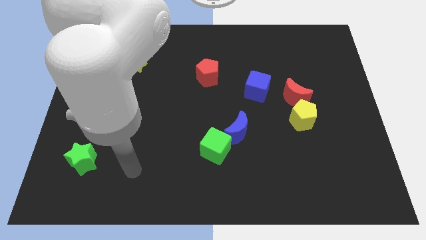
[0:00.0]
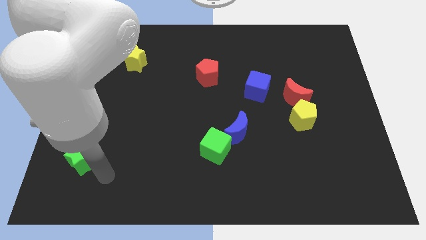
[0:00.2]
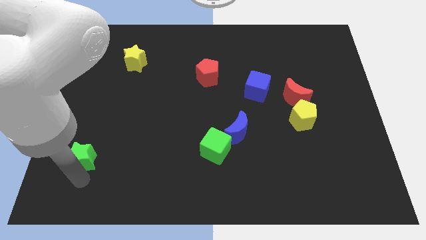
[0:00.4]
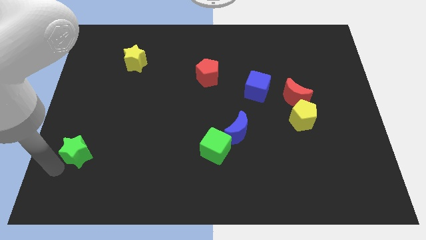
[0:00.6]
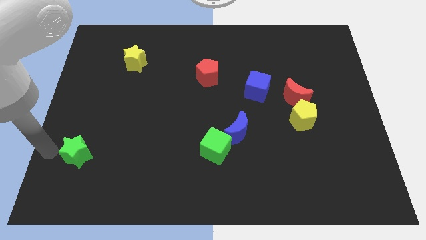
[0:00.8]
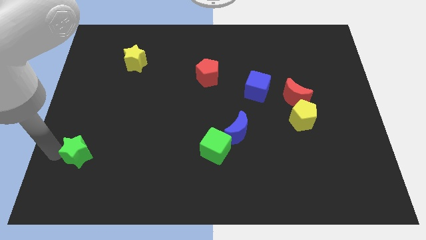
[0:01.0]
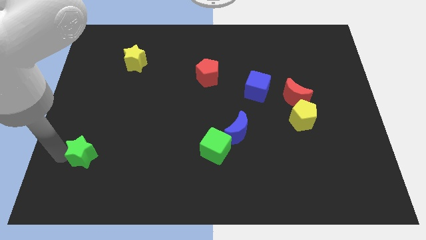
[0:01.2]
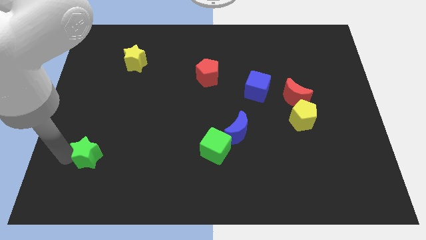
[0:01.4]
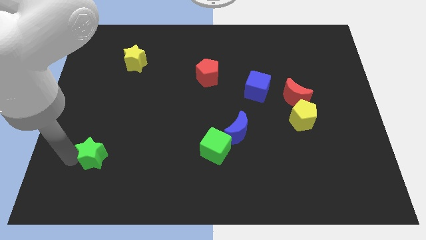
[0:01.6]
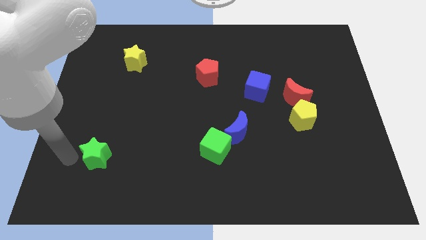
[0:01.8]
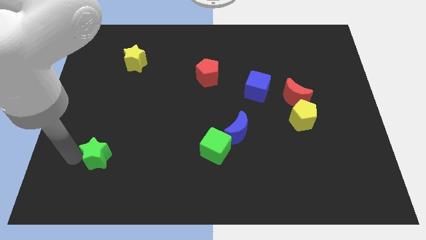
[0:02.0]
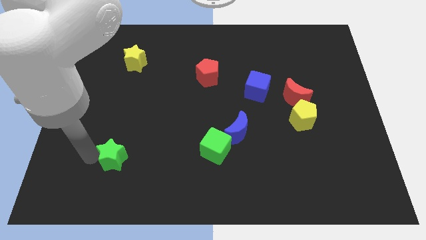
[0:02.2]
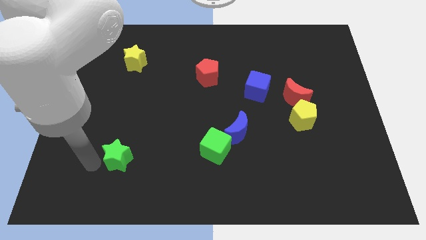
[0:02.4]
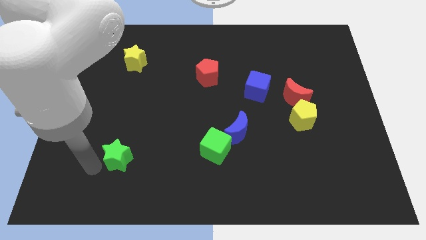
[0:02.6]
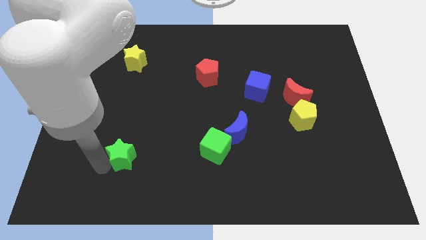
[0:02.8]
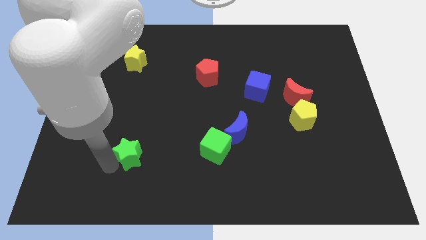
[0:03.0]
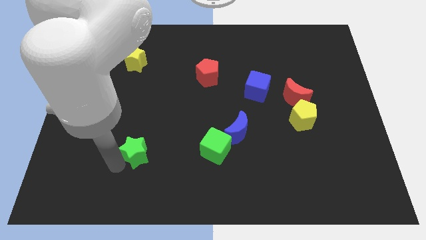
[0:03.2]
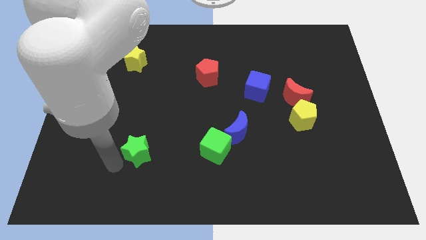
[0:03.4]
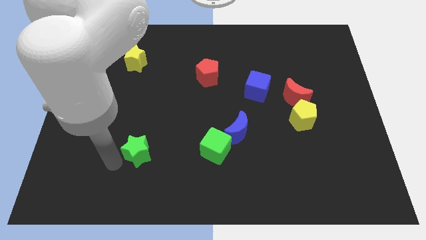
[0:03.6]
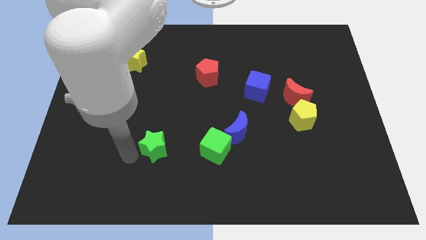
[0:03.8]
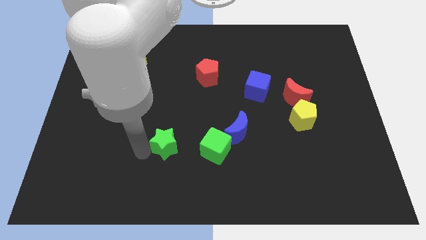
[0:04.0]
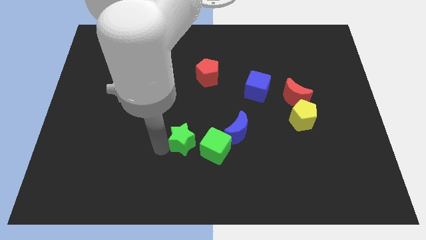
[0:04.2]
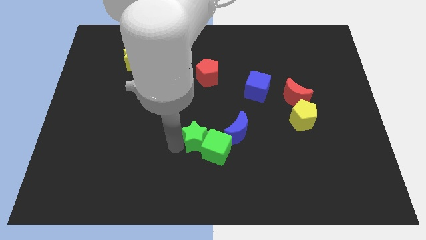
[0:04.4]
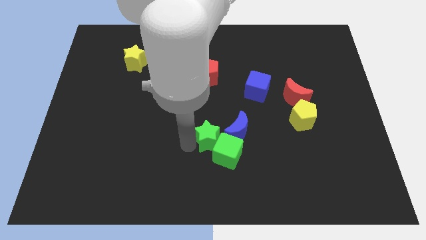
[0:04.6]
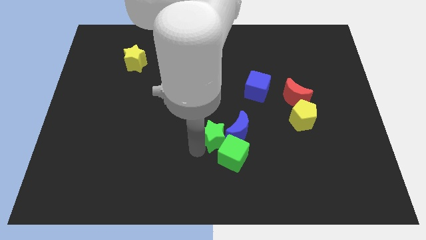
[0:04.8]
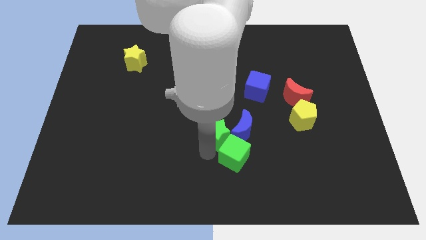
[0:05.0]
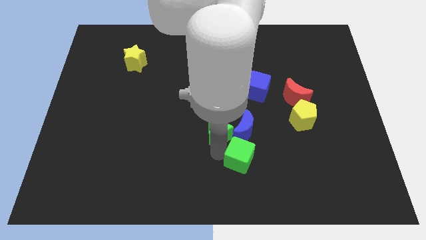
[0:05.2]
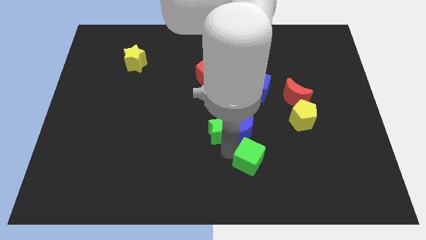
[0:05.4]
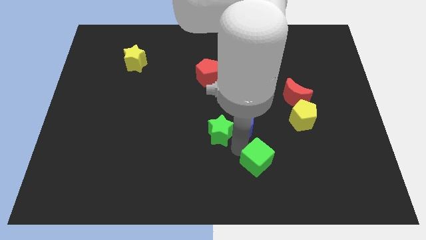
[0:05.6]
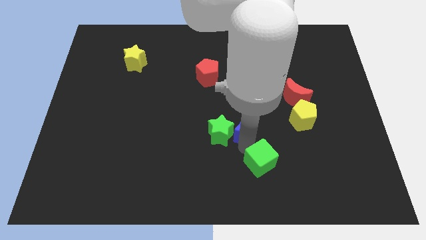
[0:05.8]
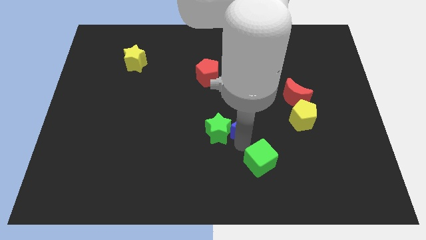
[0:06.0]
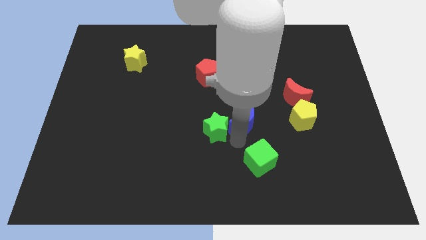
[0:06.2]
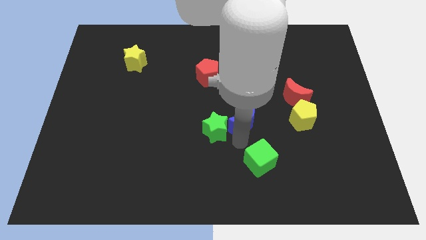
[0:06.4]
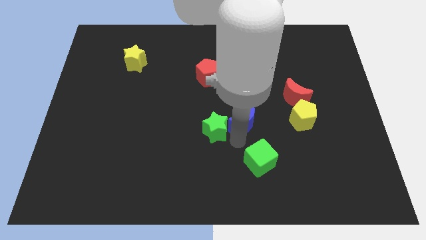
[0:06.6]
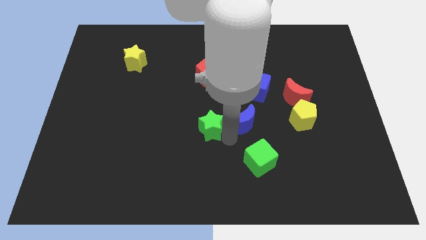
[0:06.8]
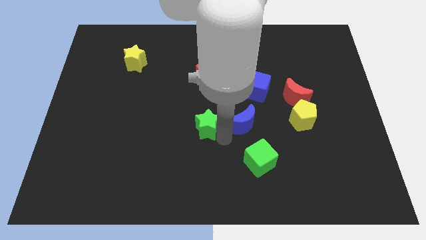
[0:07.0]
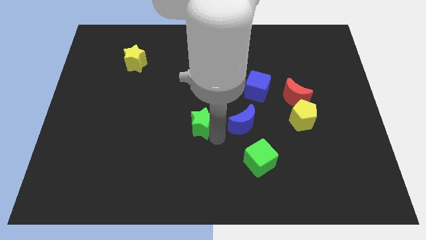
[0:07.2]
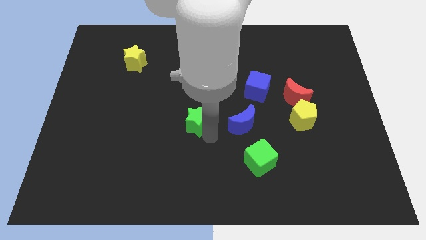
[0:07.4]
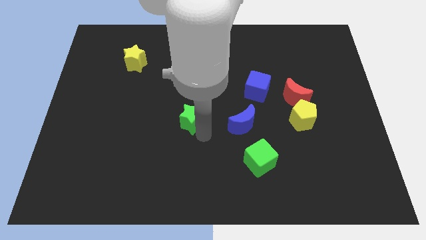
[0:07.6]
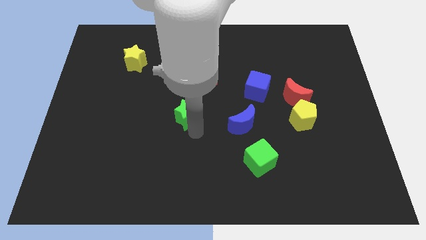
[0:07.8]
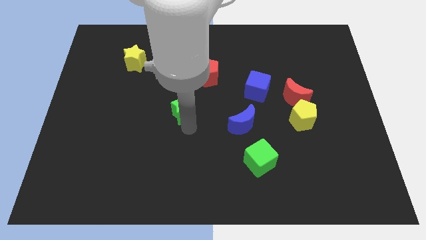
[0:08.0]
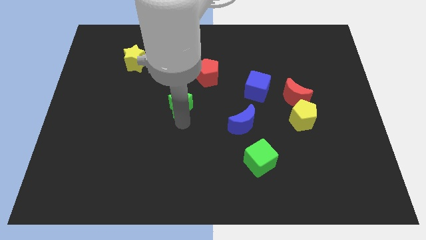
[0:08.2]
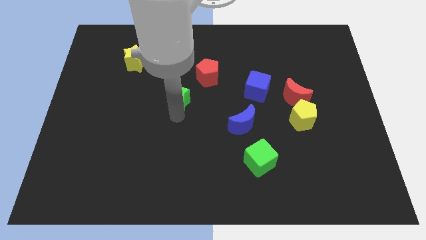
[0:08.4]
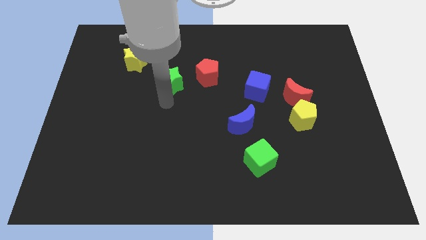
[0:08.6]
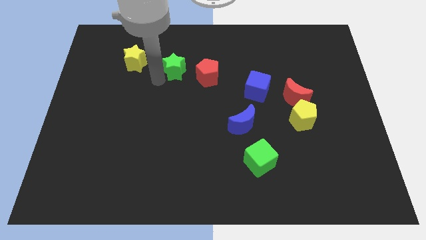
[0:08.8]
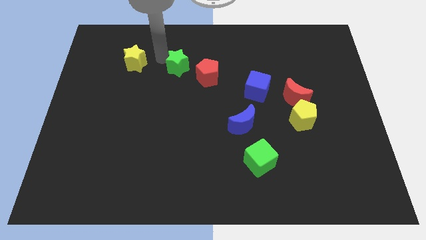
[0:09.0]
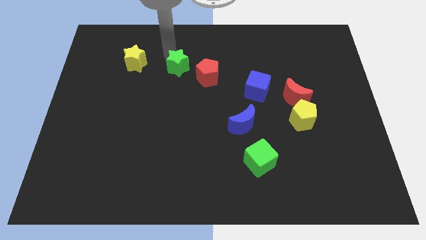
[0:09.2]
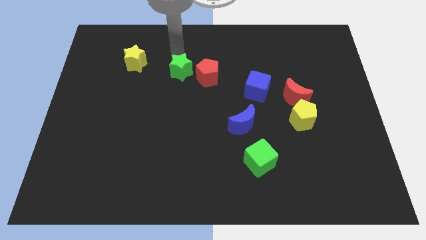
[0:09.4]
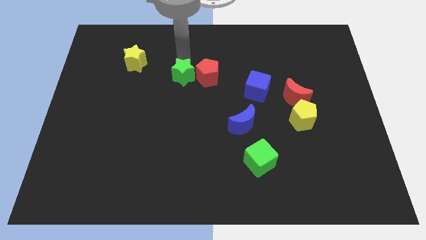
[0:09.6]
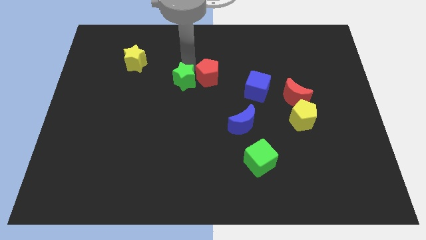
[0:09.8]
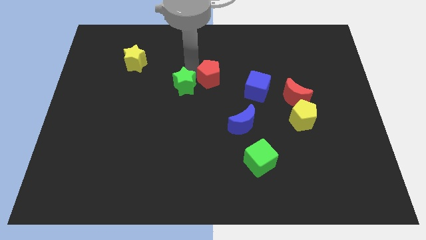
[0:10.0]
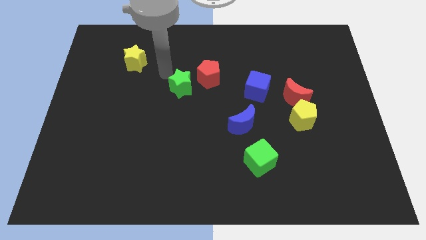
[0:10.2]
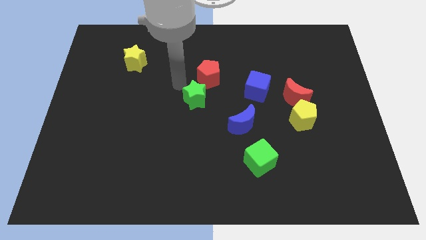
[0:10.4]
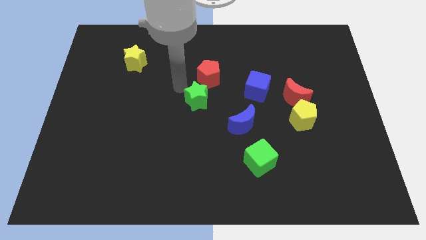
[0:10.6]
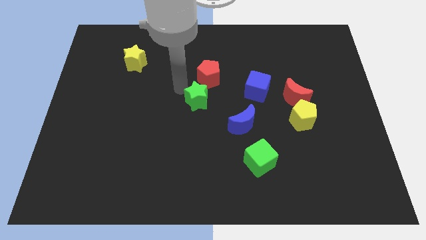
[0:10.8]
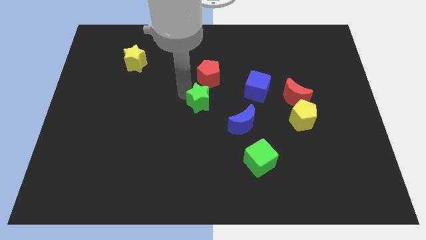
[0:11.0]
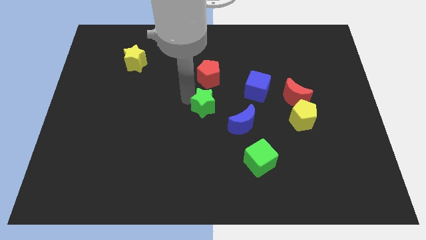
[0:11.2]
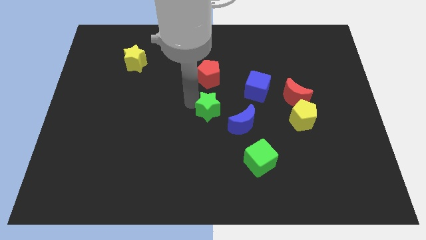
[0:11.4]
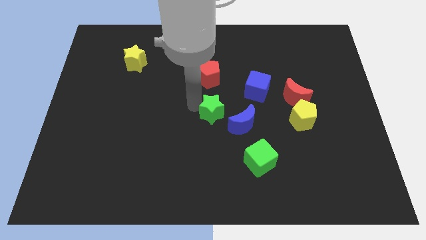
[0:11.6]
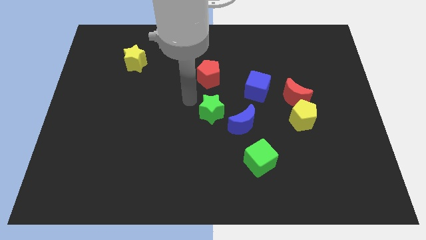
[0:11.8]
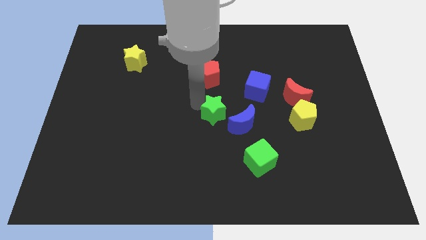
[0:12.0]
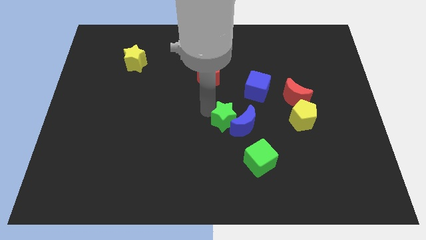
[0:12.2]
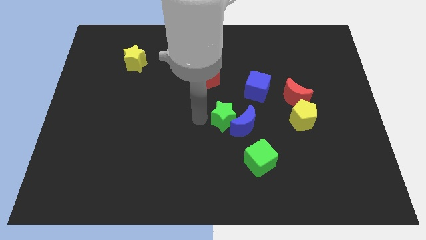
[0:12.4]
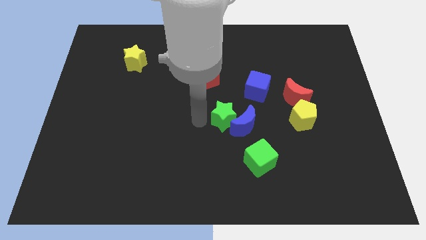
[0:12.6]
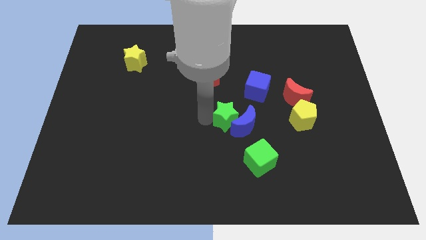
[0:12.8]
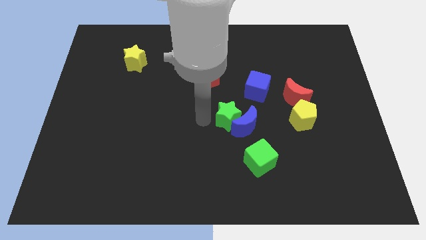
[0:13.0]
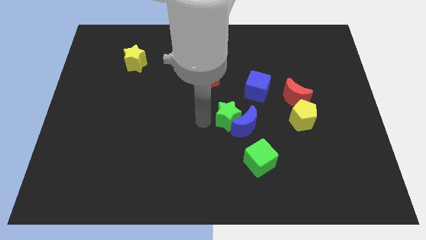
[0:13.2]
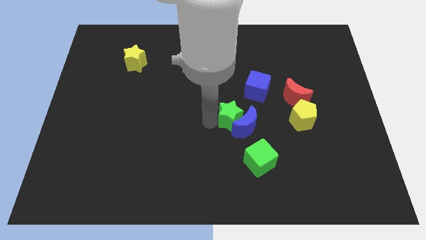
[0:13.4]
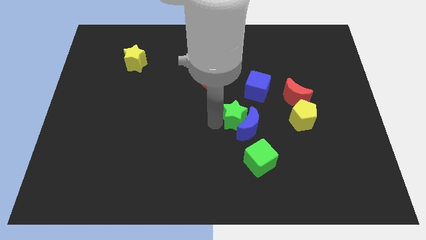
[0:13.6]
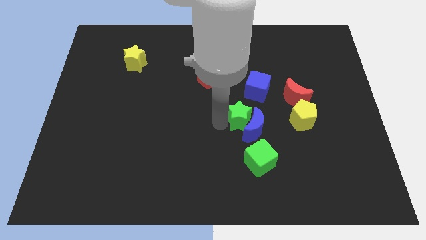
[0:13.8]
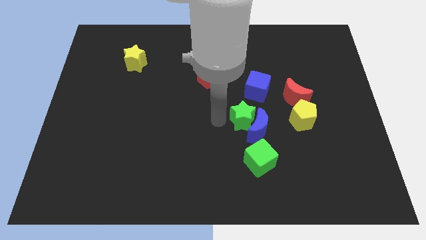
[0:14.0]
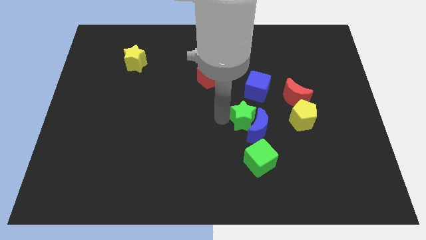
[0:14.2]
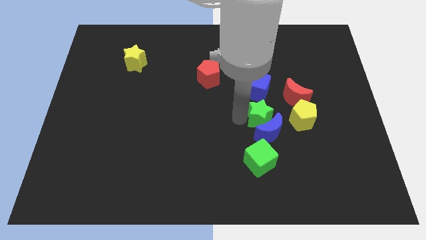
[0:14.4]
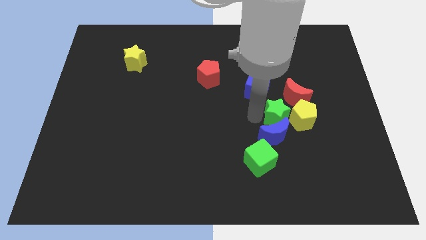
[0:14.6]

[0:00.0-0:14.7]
move the green star close to the yellow pentagon
